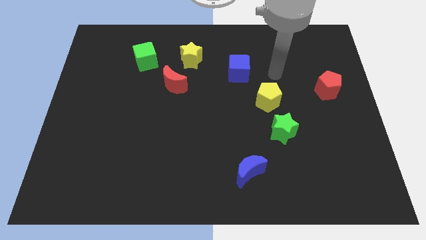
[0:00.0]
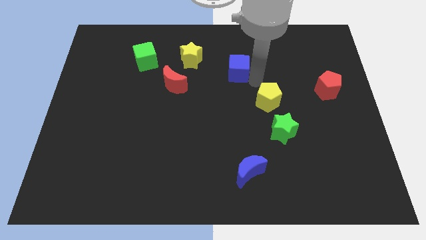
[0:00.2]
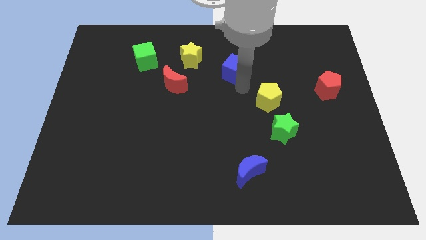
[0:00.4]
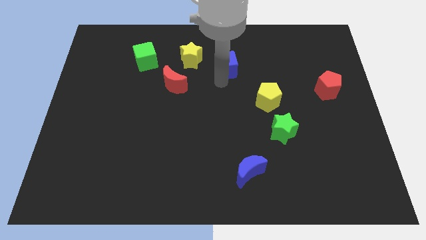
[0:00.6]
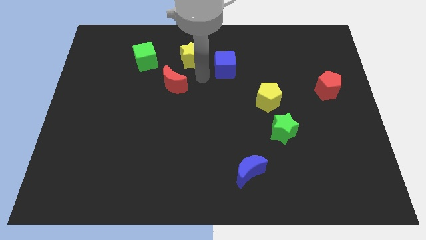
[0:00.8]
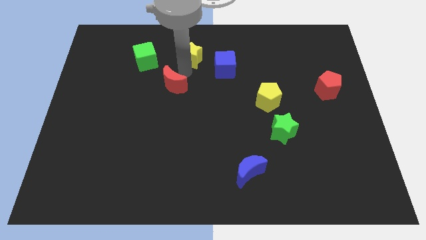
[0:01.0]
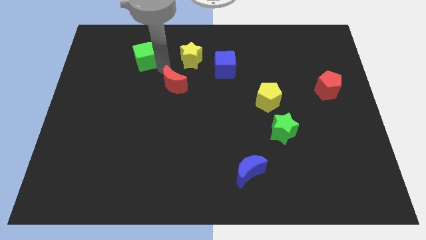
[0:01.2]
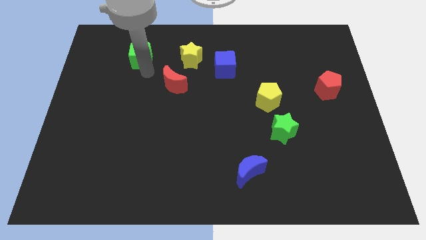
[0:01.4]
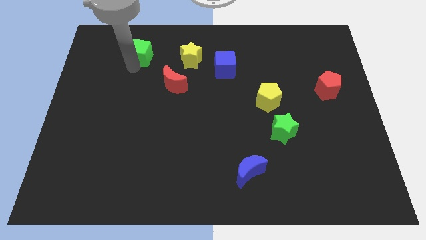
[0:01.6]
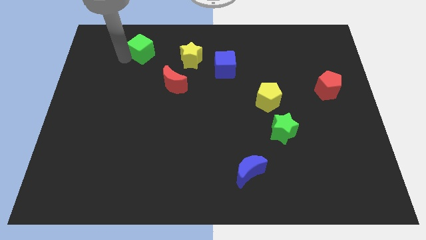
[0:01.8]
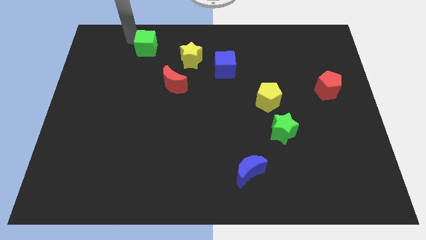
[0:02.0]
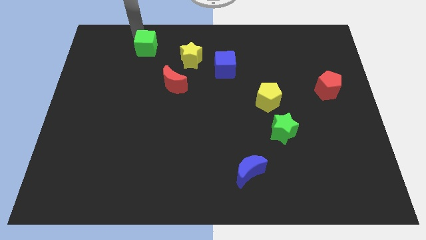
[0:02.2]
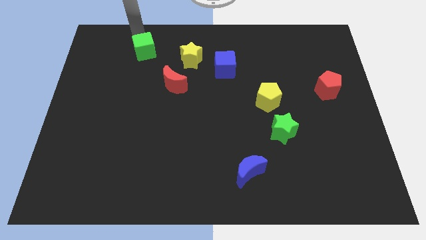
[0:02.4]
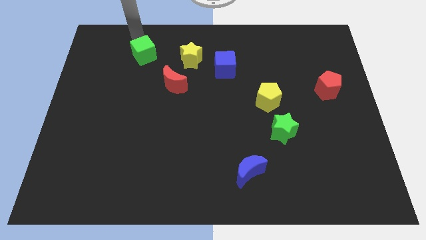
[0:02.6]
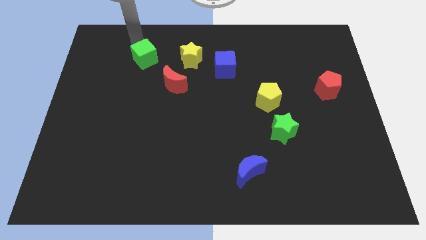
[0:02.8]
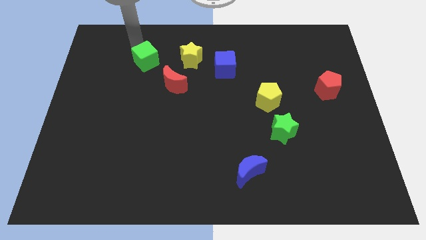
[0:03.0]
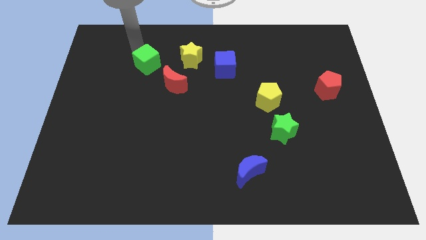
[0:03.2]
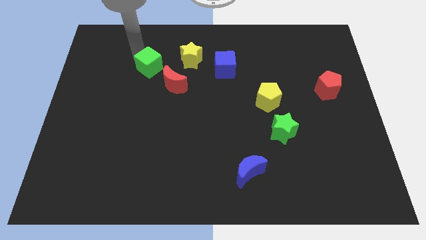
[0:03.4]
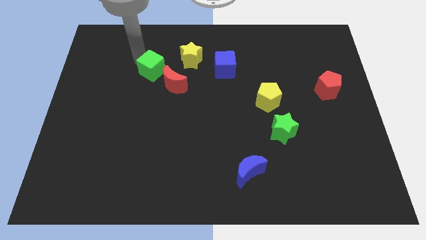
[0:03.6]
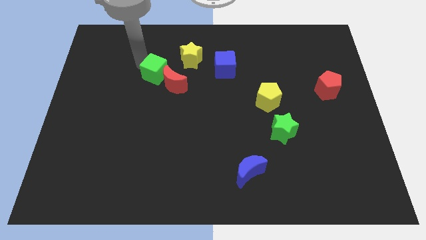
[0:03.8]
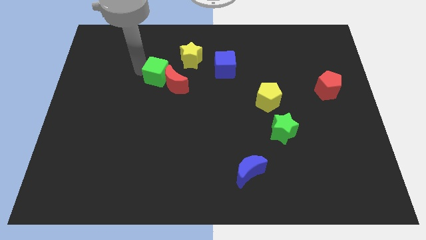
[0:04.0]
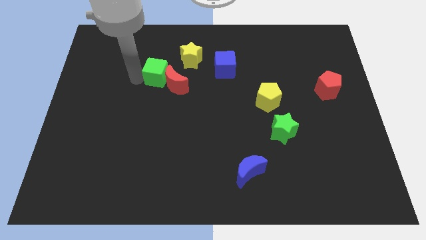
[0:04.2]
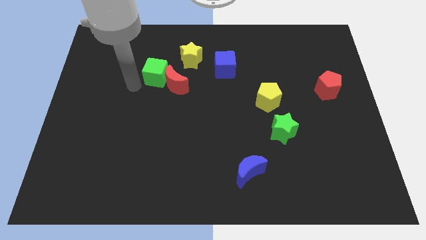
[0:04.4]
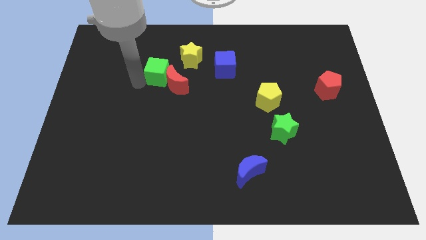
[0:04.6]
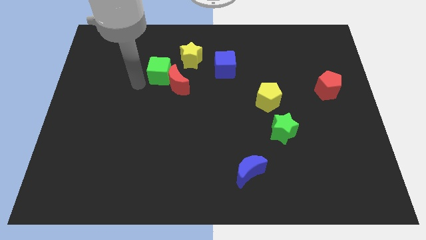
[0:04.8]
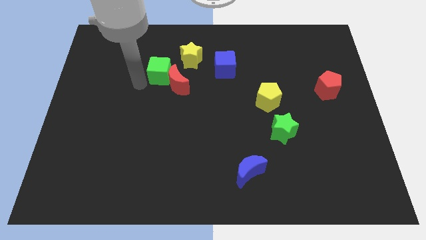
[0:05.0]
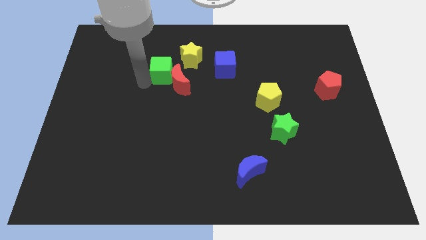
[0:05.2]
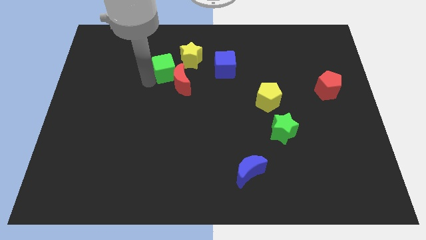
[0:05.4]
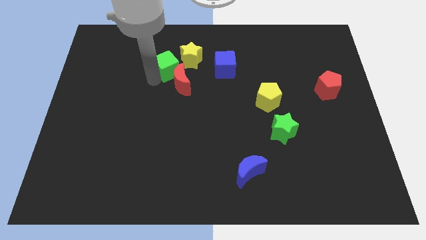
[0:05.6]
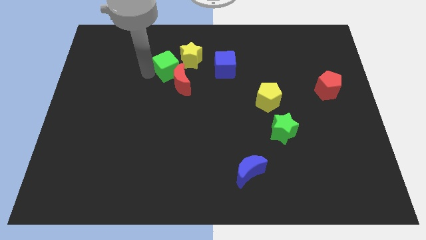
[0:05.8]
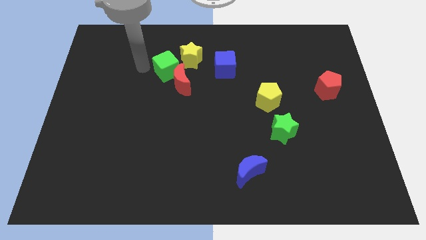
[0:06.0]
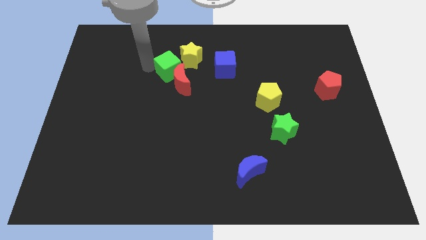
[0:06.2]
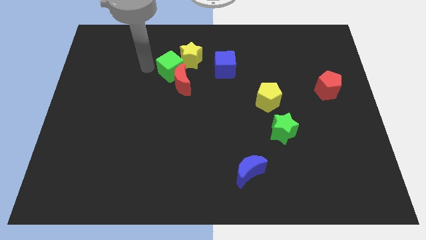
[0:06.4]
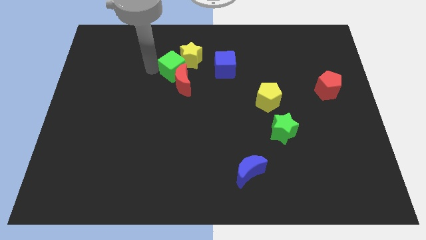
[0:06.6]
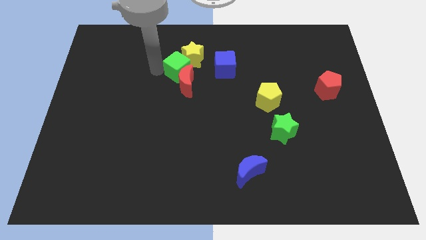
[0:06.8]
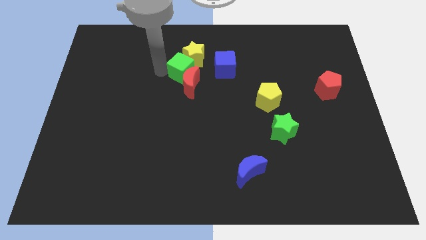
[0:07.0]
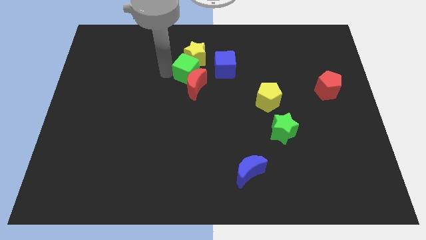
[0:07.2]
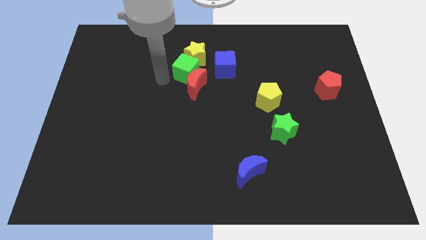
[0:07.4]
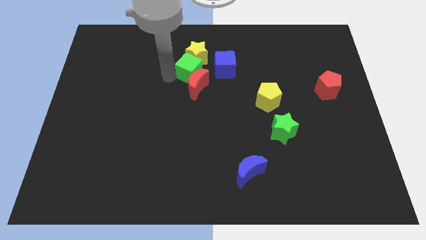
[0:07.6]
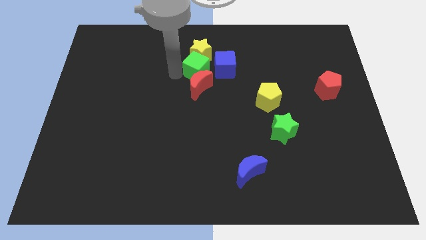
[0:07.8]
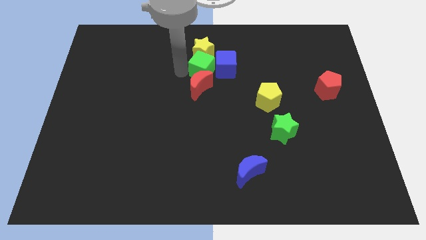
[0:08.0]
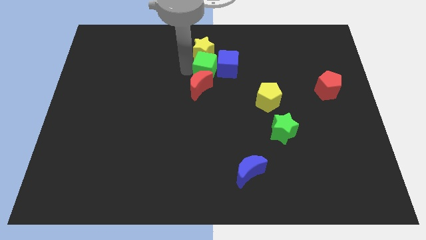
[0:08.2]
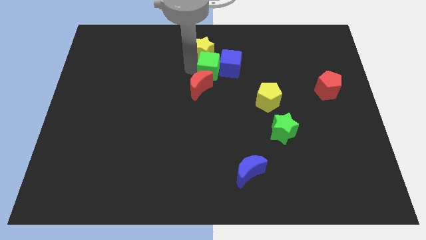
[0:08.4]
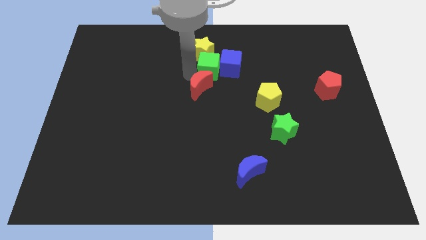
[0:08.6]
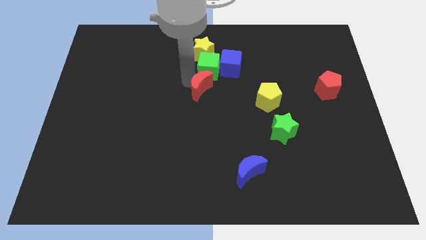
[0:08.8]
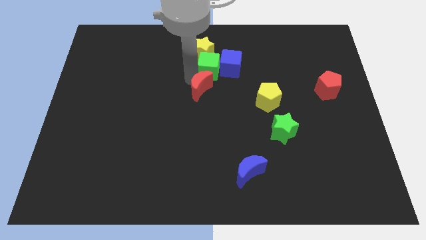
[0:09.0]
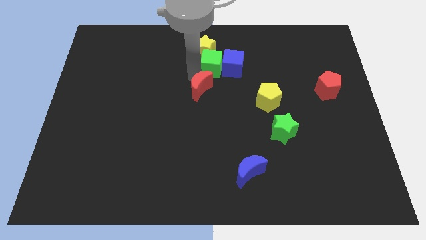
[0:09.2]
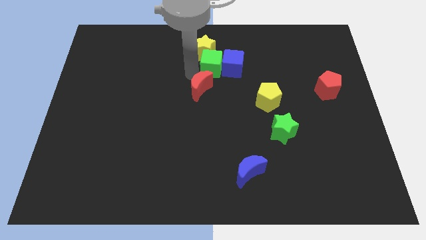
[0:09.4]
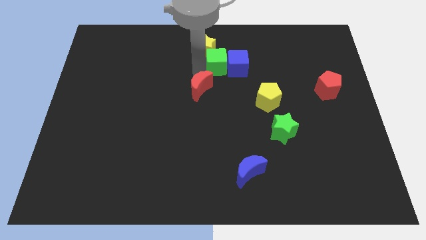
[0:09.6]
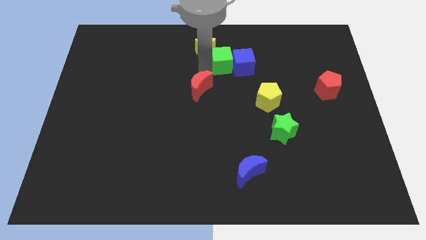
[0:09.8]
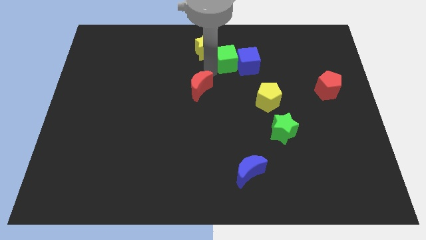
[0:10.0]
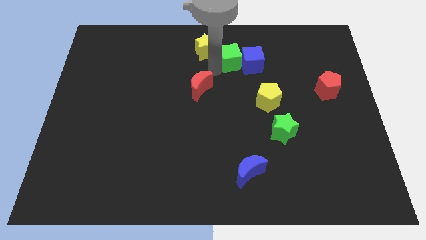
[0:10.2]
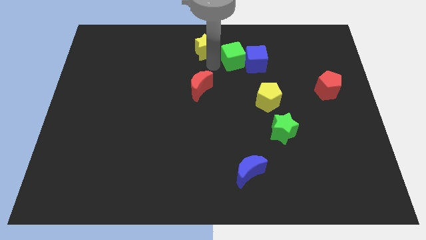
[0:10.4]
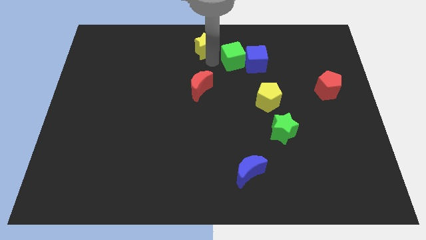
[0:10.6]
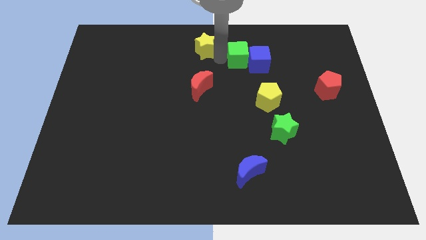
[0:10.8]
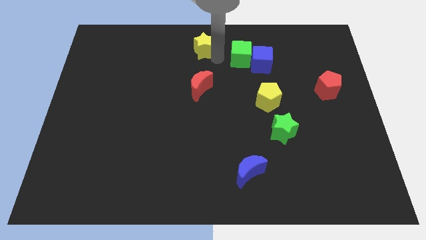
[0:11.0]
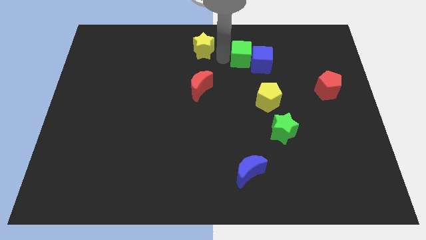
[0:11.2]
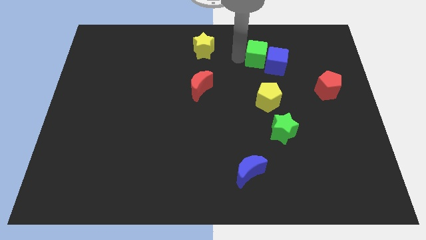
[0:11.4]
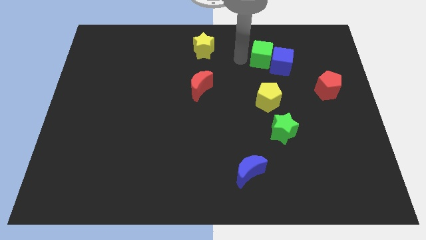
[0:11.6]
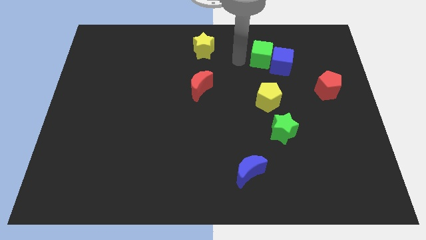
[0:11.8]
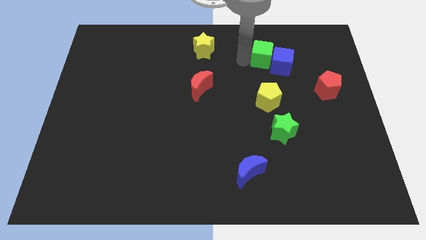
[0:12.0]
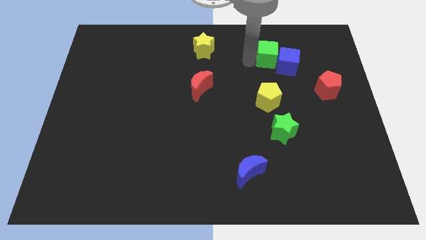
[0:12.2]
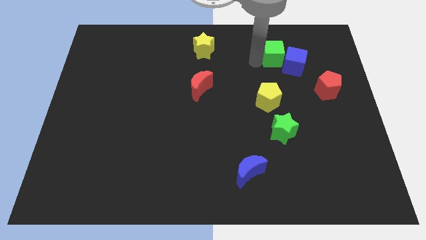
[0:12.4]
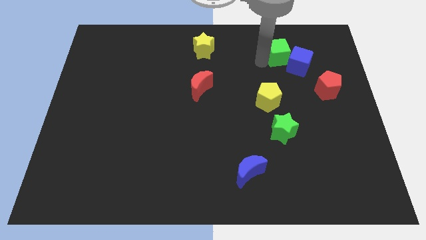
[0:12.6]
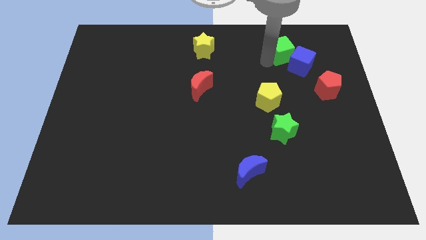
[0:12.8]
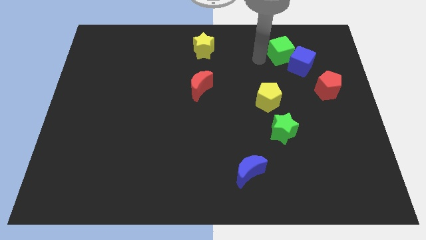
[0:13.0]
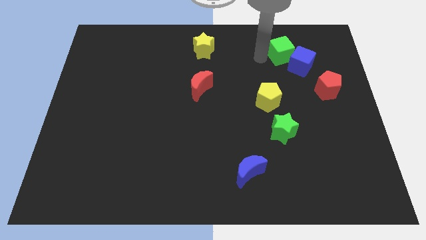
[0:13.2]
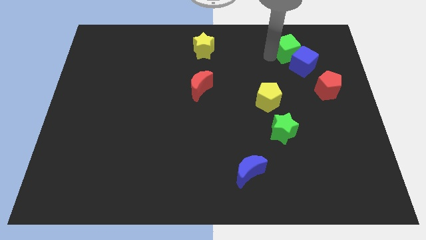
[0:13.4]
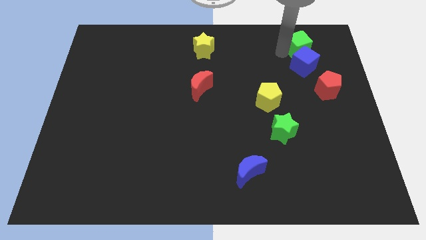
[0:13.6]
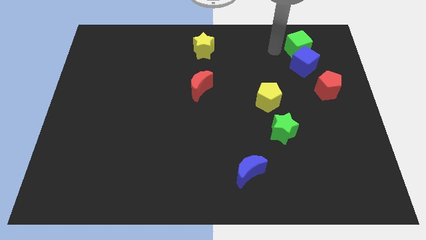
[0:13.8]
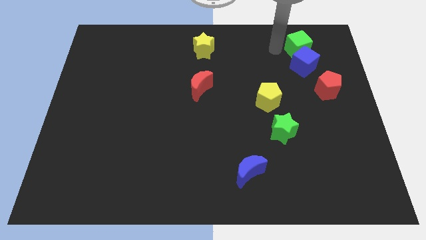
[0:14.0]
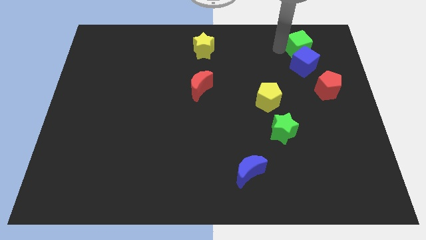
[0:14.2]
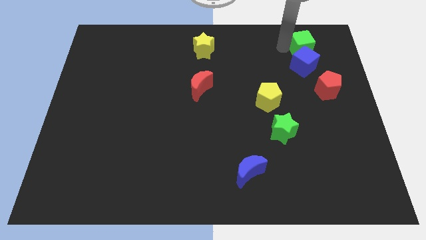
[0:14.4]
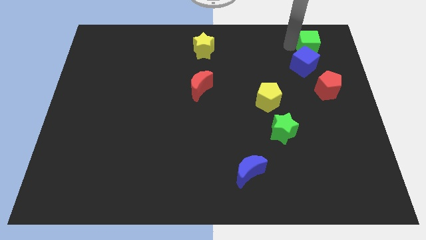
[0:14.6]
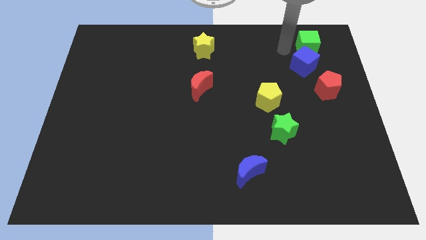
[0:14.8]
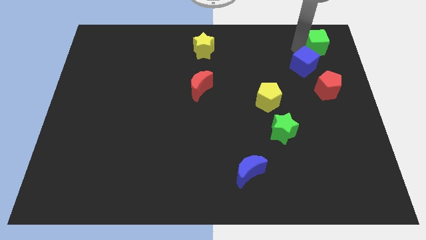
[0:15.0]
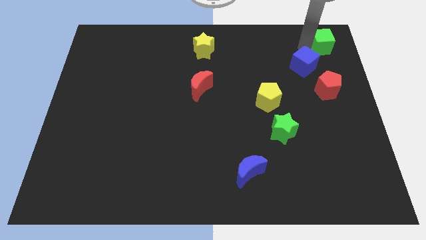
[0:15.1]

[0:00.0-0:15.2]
slide the green cube to the top right of the board
